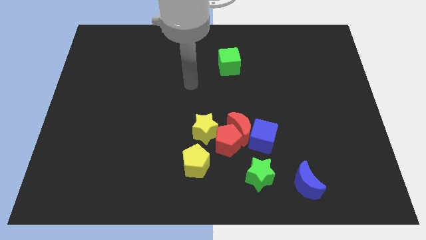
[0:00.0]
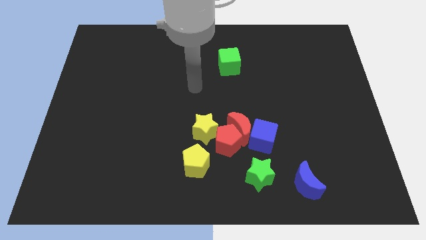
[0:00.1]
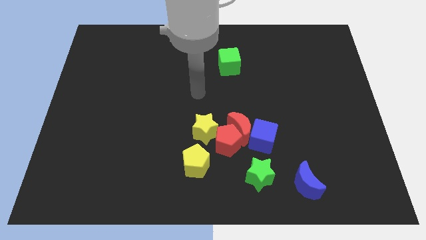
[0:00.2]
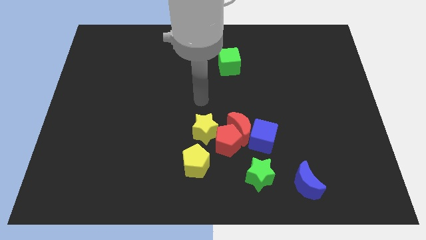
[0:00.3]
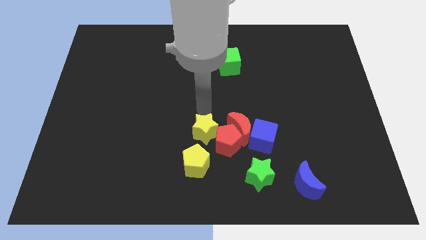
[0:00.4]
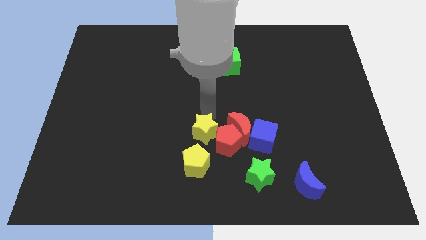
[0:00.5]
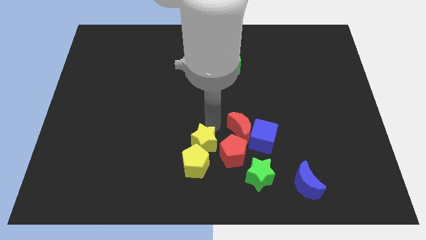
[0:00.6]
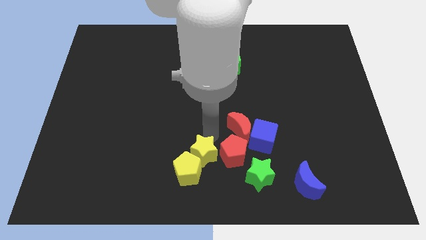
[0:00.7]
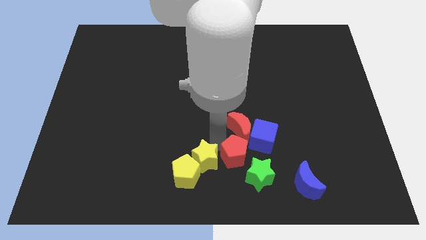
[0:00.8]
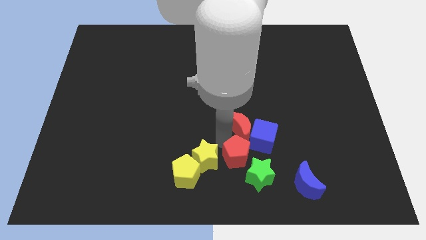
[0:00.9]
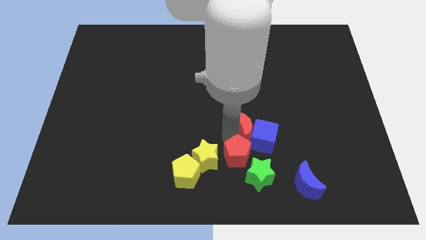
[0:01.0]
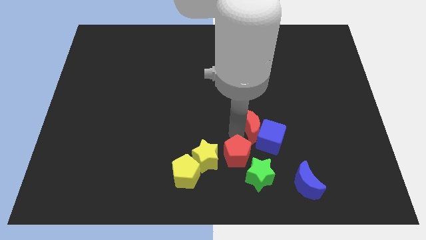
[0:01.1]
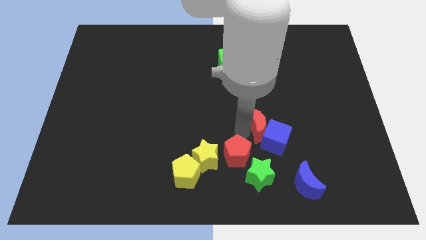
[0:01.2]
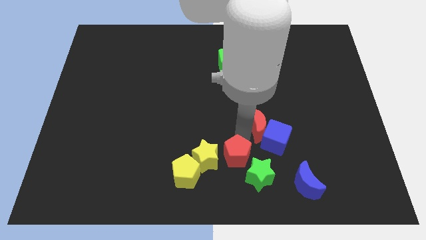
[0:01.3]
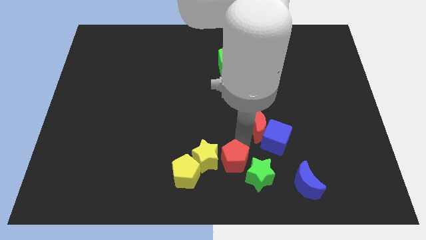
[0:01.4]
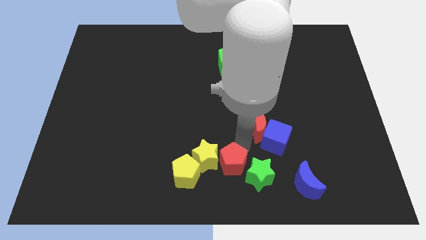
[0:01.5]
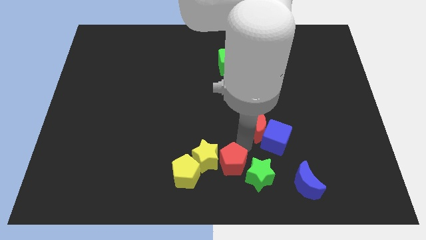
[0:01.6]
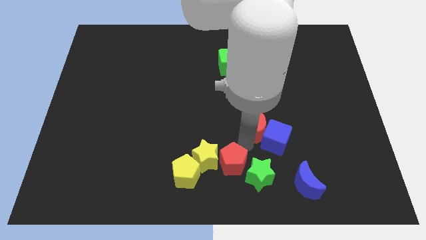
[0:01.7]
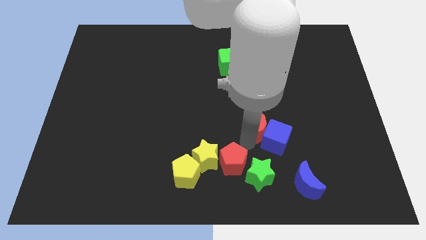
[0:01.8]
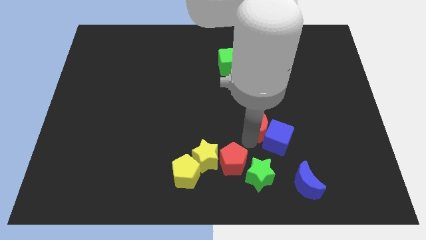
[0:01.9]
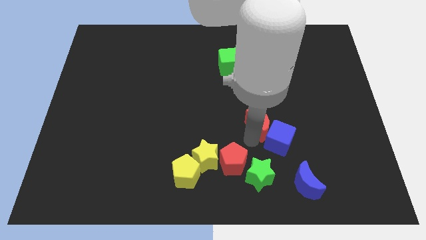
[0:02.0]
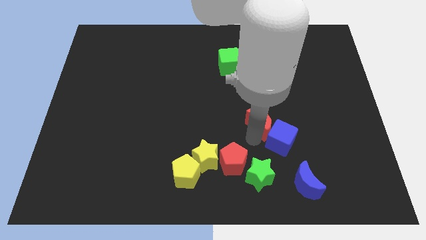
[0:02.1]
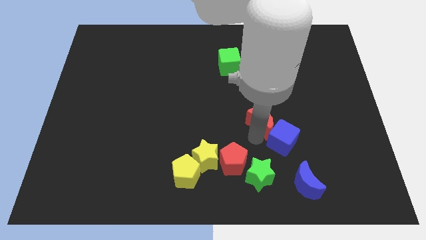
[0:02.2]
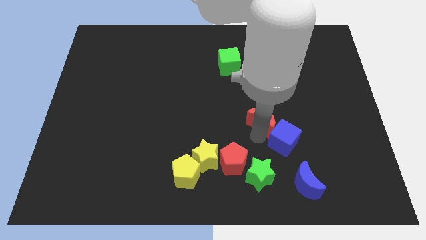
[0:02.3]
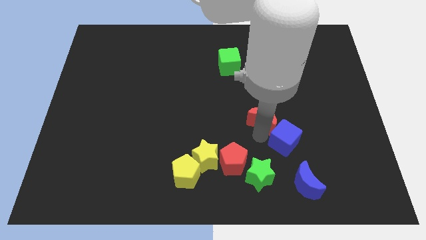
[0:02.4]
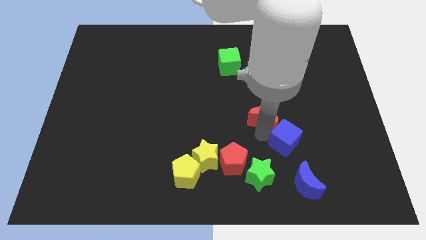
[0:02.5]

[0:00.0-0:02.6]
separate the red moon from the red pentagon, blue cube, and yellow star

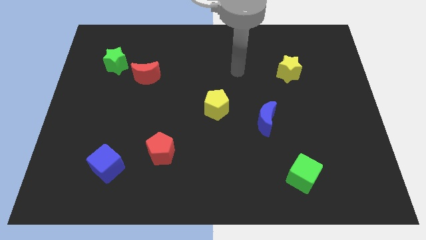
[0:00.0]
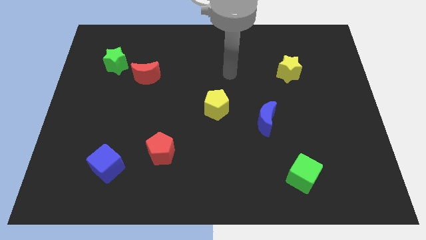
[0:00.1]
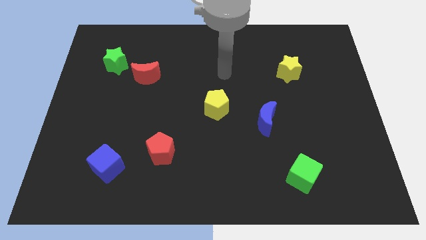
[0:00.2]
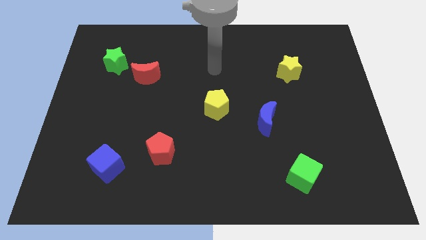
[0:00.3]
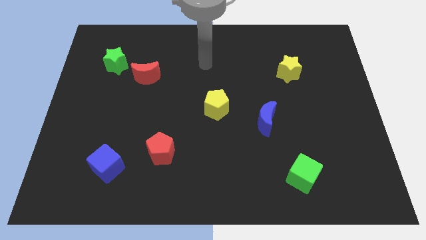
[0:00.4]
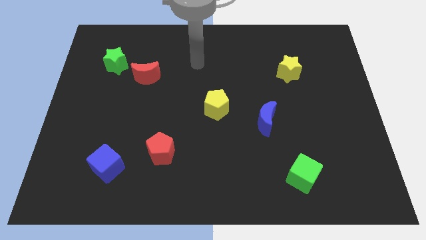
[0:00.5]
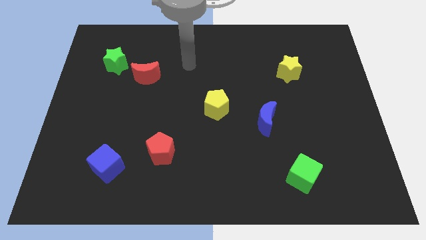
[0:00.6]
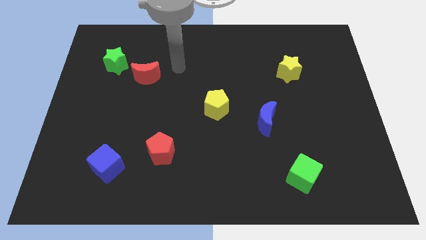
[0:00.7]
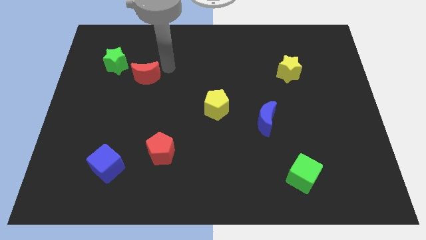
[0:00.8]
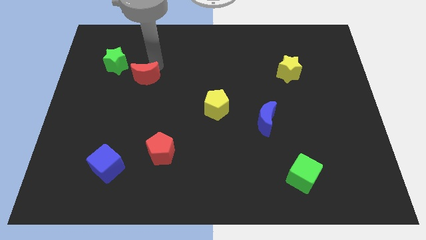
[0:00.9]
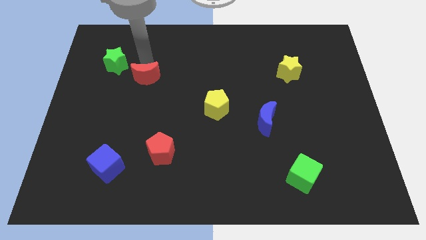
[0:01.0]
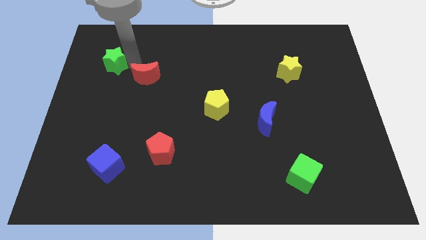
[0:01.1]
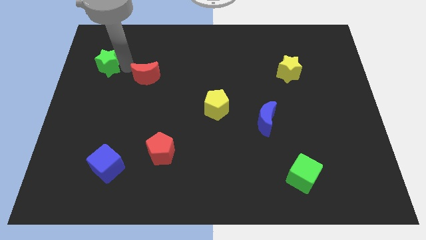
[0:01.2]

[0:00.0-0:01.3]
move the red moon away from the green star

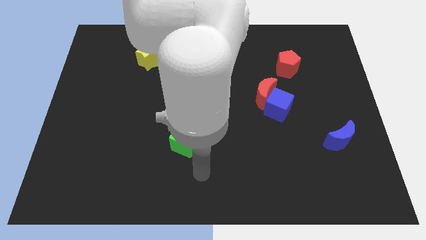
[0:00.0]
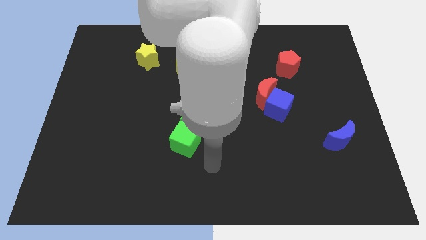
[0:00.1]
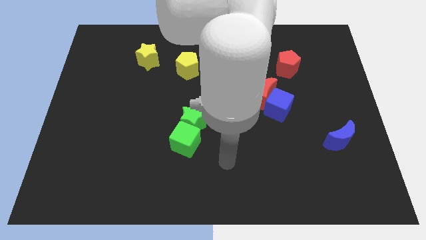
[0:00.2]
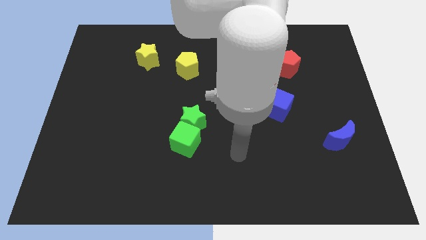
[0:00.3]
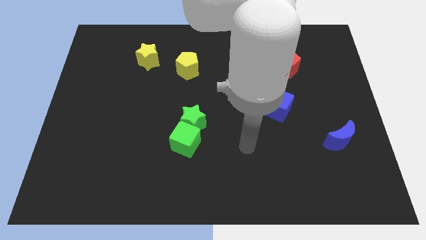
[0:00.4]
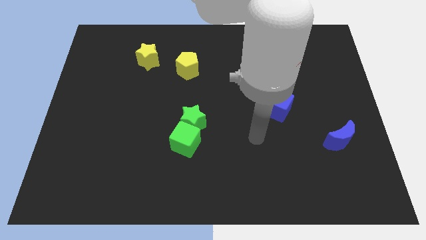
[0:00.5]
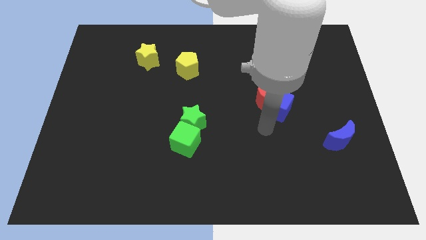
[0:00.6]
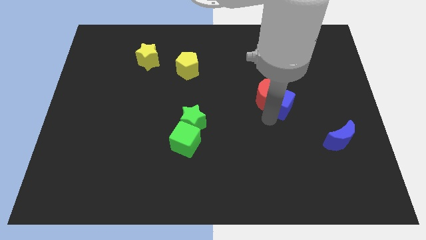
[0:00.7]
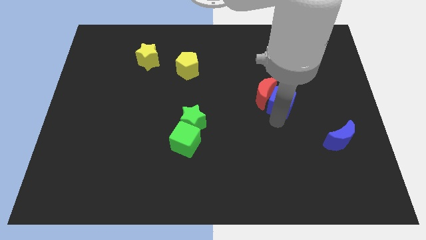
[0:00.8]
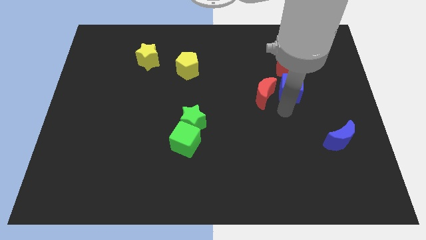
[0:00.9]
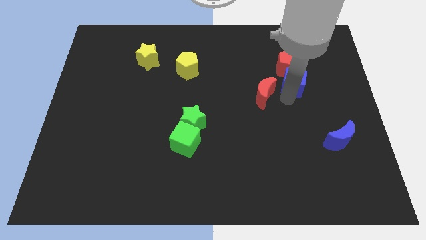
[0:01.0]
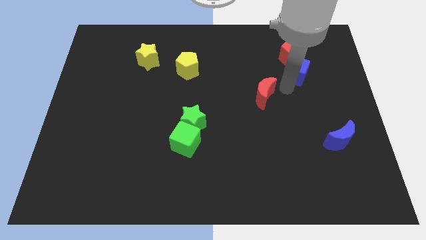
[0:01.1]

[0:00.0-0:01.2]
move the red moon away from the blue cube

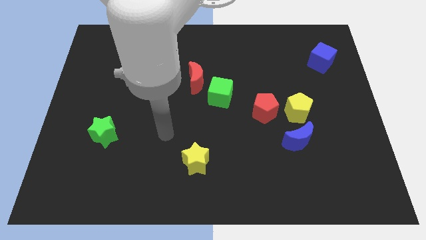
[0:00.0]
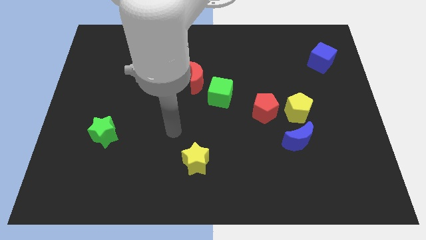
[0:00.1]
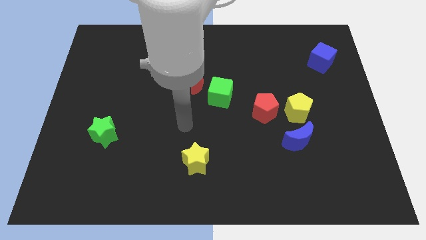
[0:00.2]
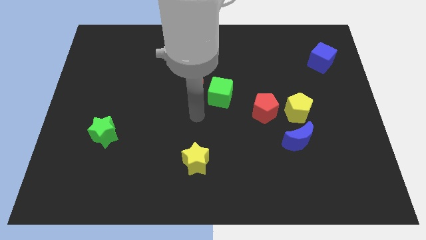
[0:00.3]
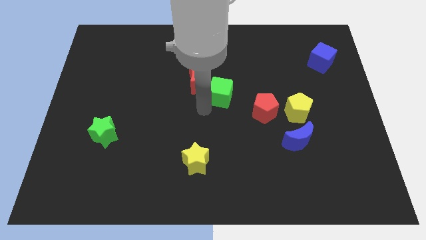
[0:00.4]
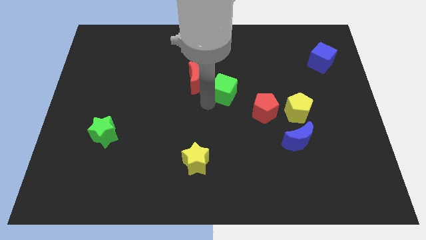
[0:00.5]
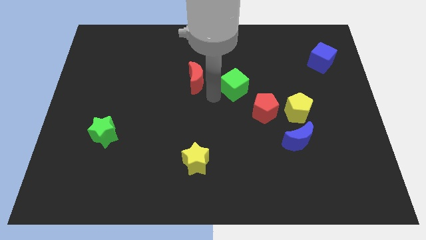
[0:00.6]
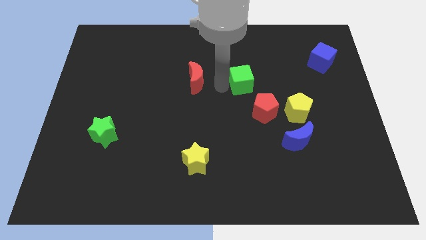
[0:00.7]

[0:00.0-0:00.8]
move the red moon away from the green cube

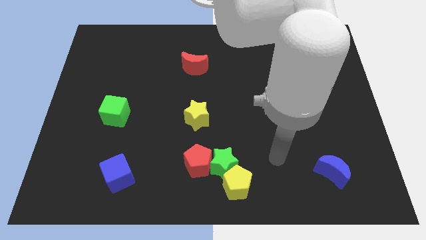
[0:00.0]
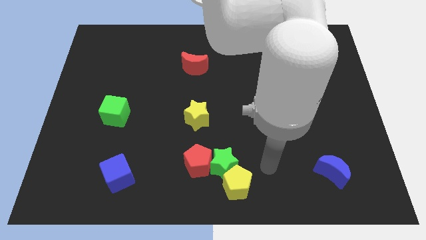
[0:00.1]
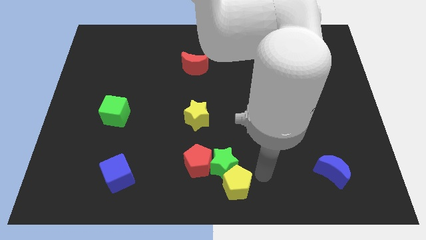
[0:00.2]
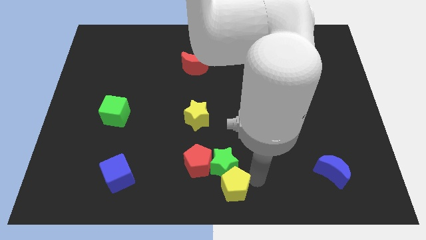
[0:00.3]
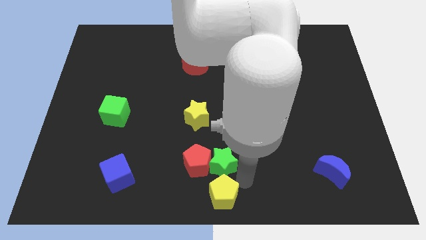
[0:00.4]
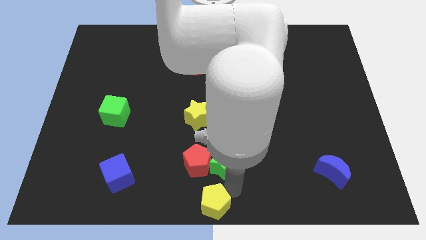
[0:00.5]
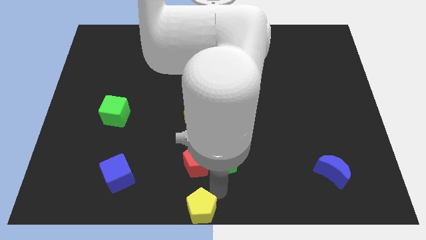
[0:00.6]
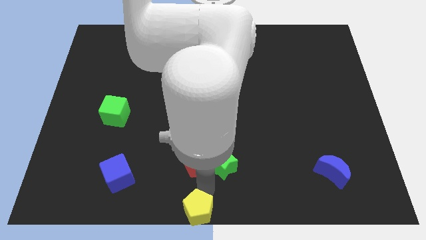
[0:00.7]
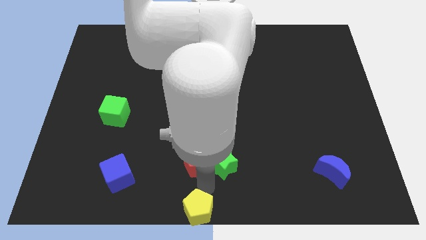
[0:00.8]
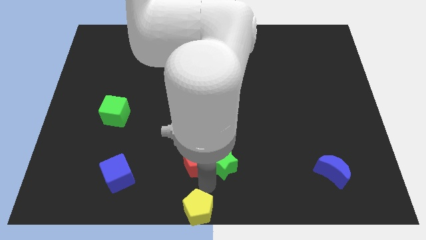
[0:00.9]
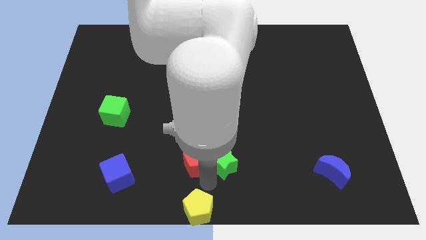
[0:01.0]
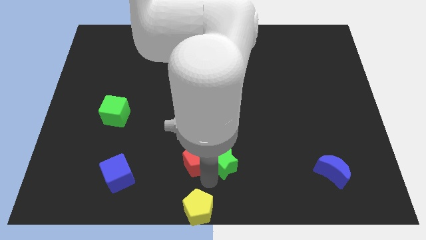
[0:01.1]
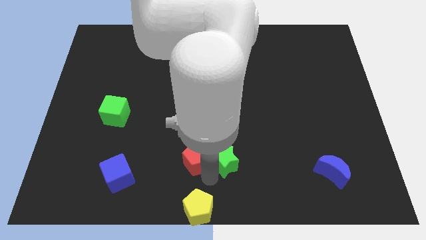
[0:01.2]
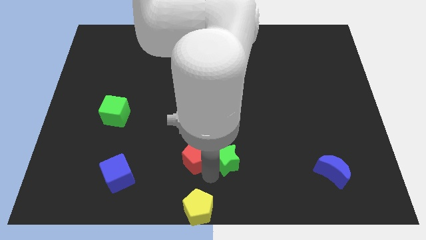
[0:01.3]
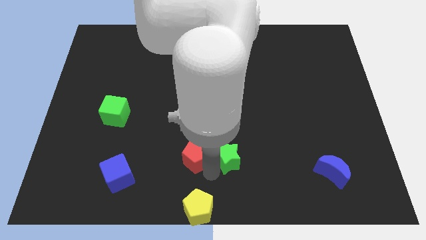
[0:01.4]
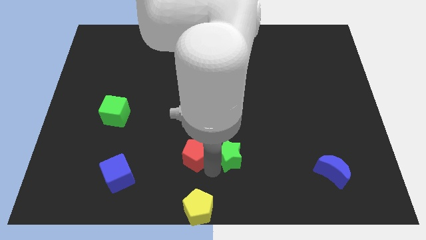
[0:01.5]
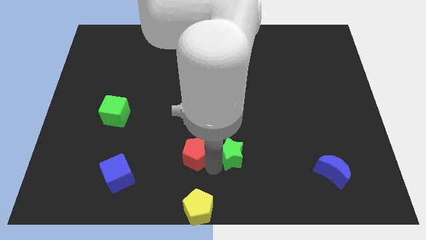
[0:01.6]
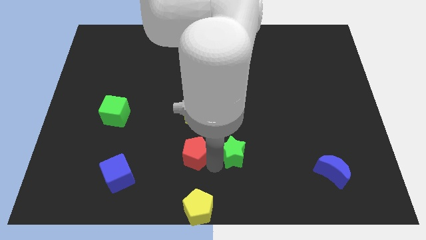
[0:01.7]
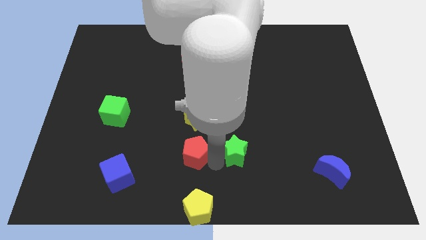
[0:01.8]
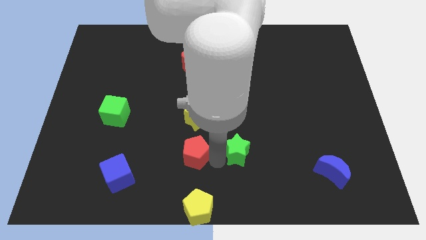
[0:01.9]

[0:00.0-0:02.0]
pull the green star apart from the yellow pentagon and red pentagon

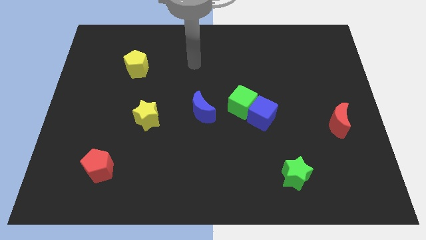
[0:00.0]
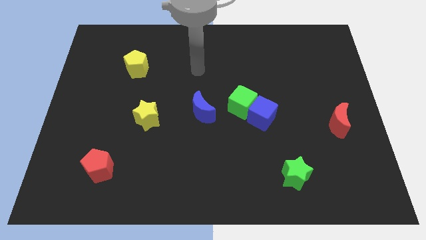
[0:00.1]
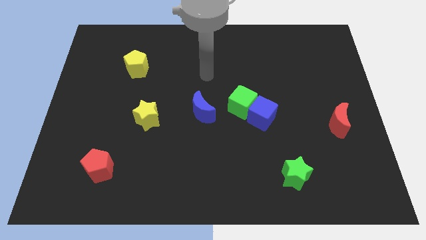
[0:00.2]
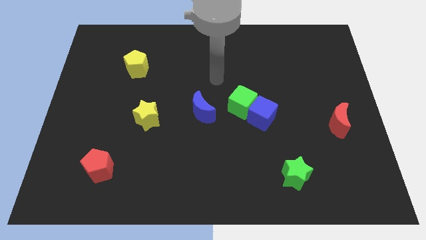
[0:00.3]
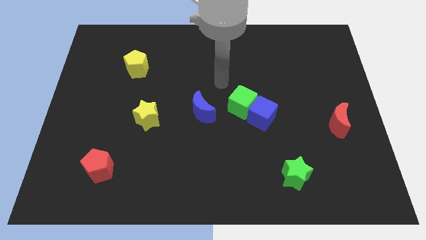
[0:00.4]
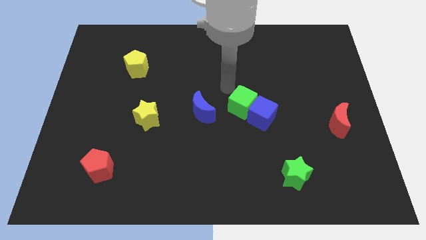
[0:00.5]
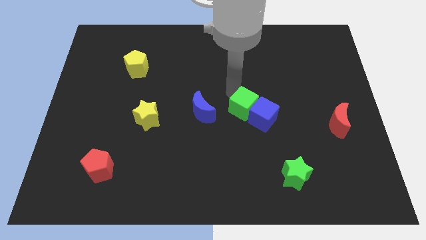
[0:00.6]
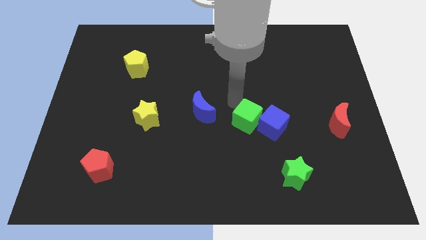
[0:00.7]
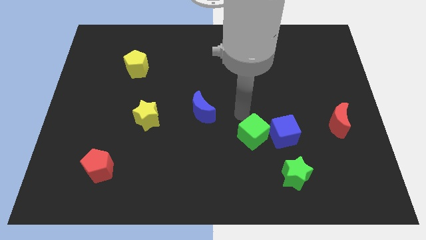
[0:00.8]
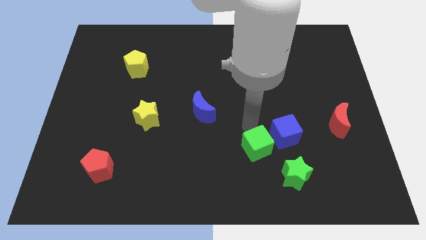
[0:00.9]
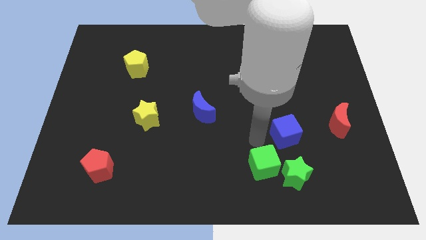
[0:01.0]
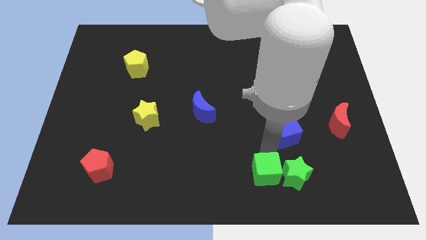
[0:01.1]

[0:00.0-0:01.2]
pull the blue cube apart from the green cube

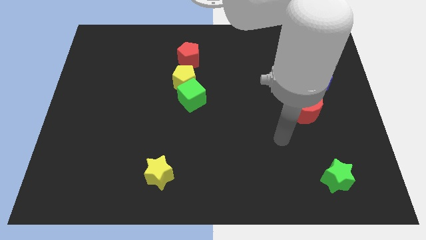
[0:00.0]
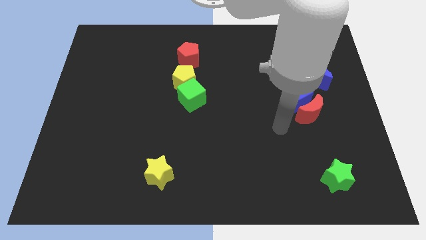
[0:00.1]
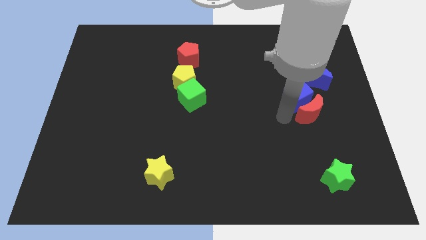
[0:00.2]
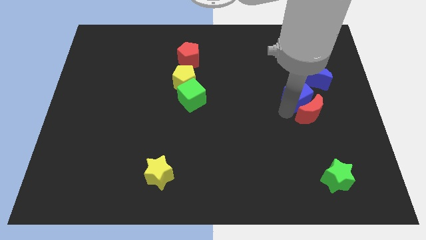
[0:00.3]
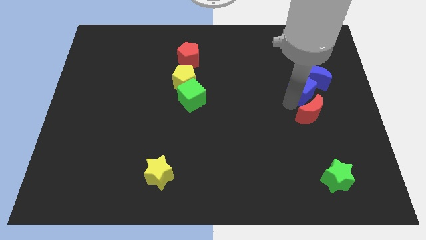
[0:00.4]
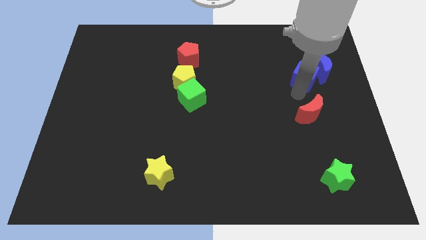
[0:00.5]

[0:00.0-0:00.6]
pull the red moon apart from the blue cube
